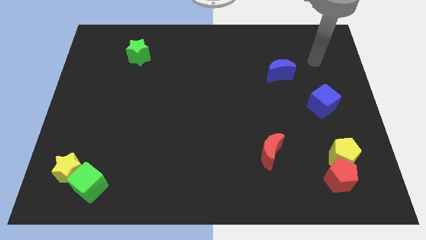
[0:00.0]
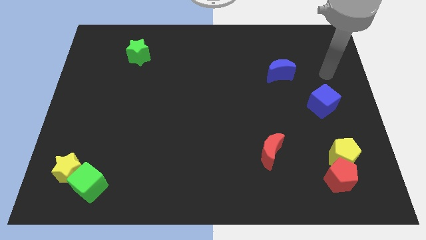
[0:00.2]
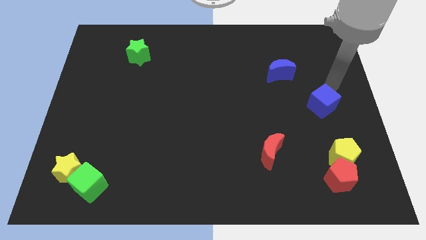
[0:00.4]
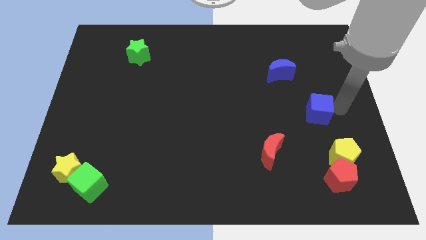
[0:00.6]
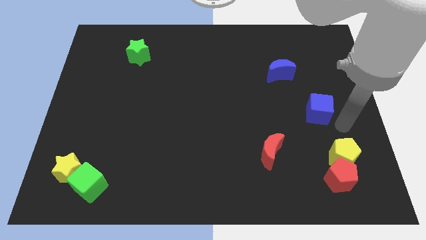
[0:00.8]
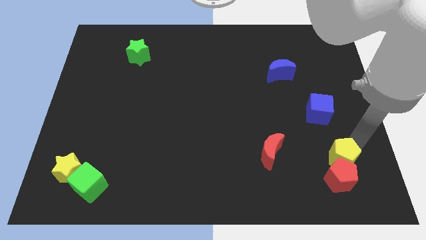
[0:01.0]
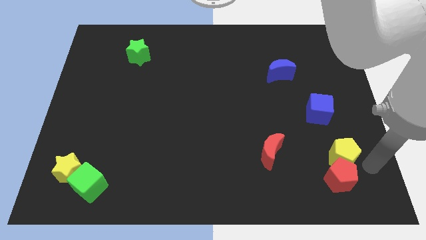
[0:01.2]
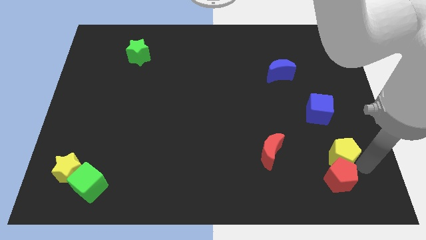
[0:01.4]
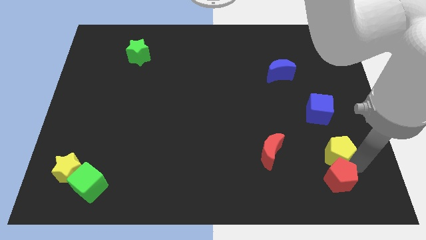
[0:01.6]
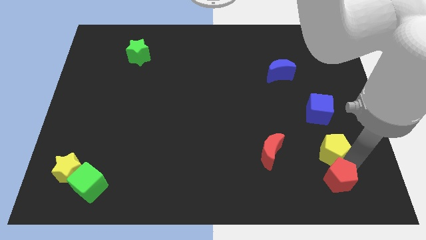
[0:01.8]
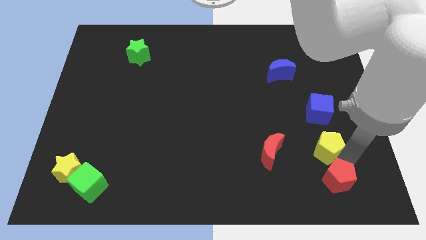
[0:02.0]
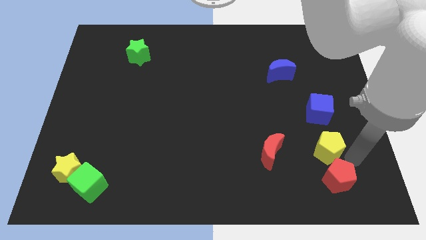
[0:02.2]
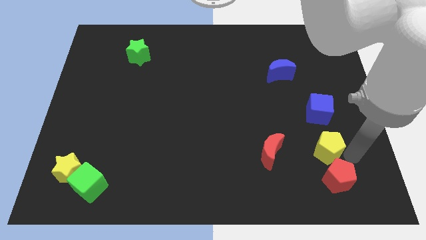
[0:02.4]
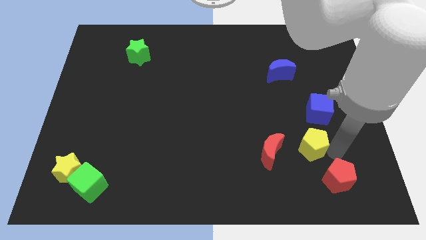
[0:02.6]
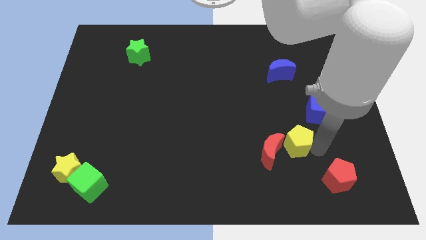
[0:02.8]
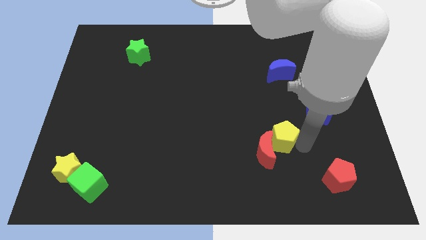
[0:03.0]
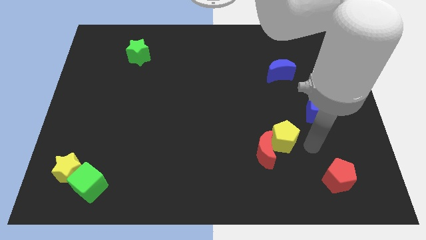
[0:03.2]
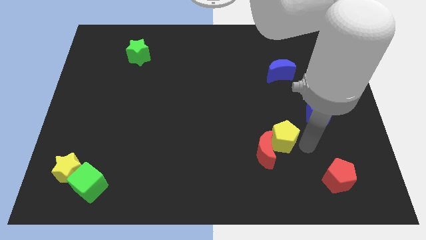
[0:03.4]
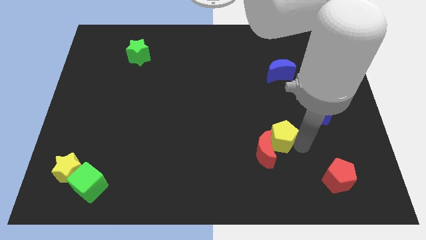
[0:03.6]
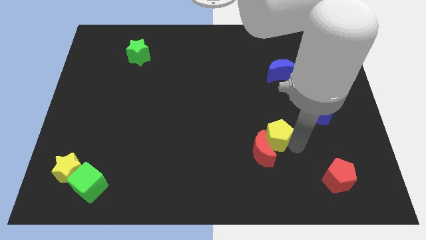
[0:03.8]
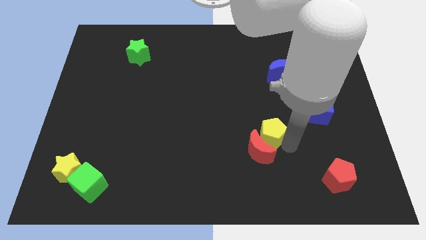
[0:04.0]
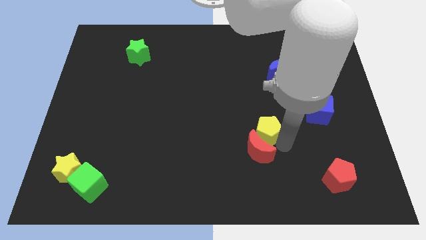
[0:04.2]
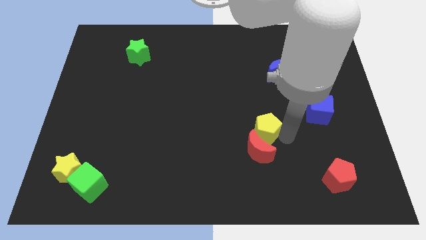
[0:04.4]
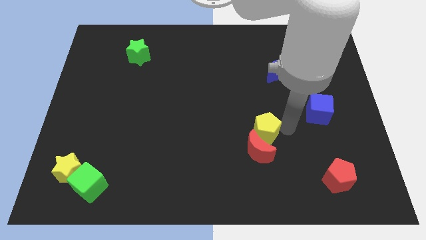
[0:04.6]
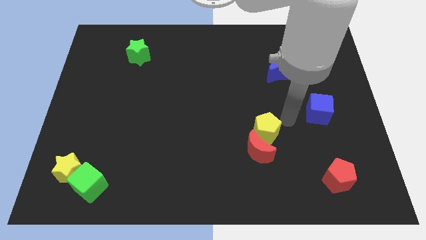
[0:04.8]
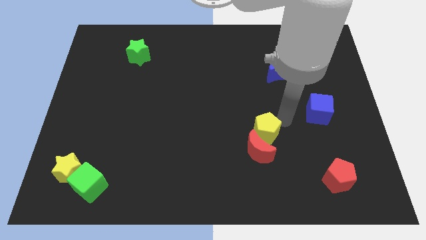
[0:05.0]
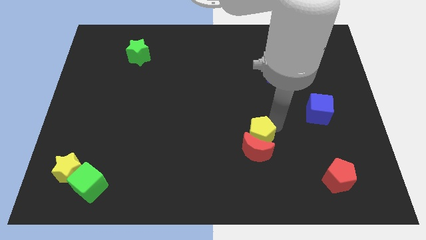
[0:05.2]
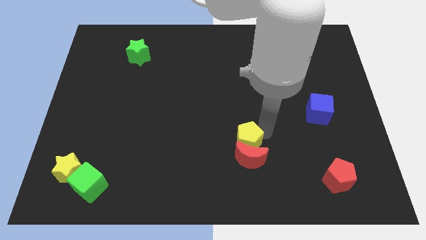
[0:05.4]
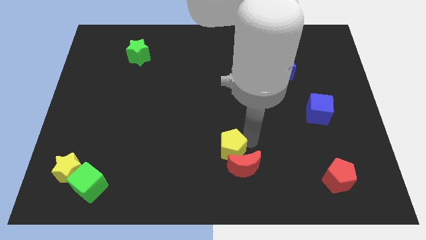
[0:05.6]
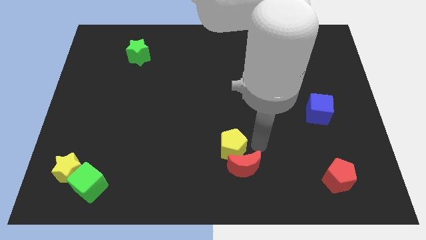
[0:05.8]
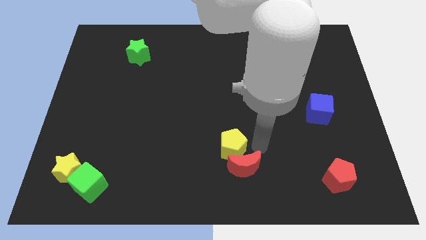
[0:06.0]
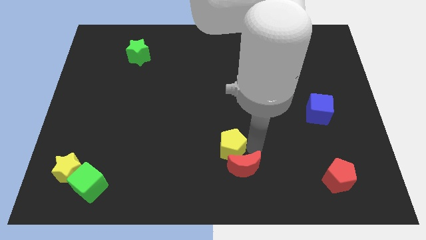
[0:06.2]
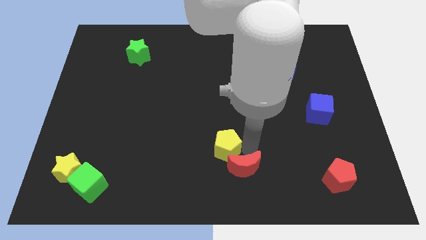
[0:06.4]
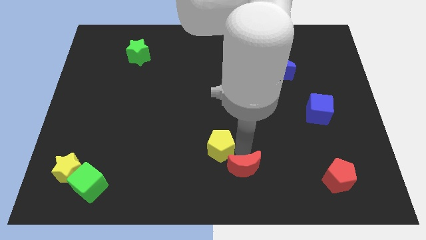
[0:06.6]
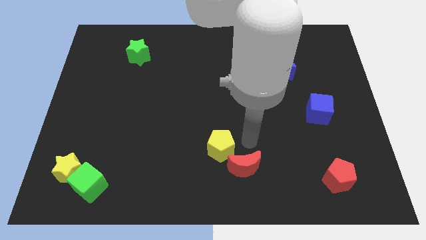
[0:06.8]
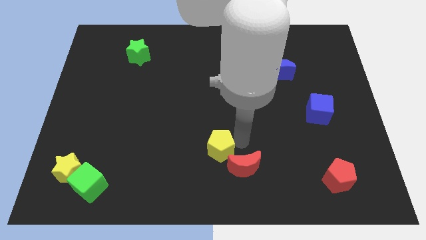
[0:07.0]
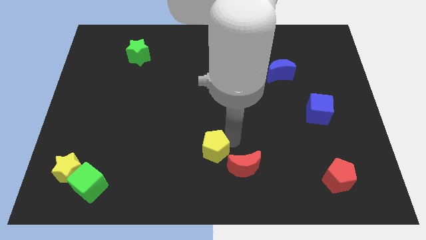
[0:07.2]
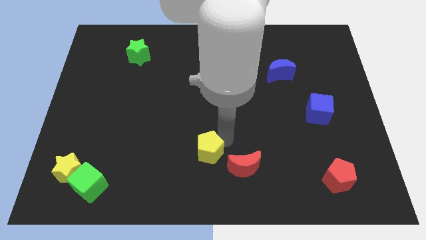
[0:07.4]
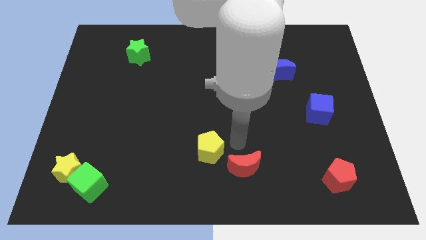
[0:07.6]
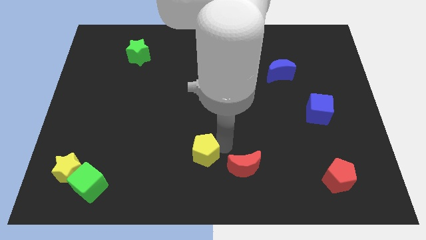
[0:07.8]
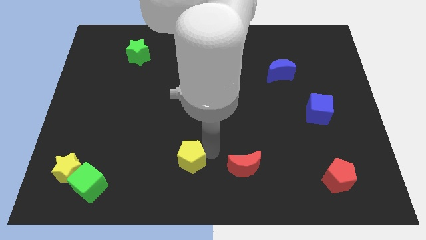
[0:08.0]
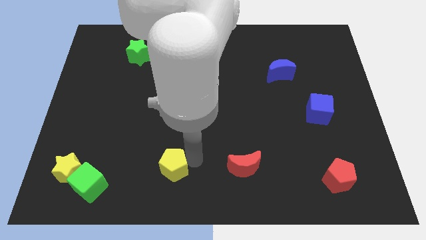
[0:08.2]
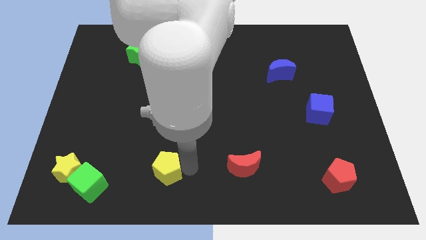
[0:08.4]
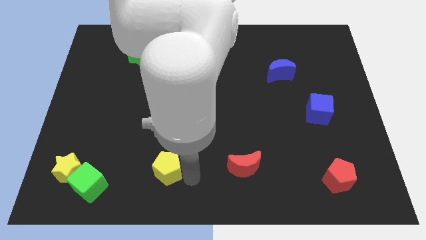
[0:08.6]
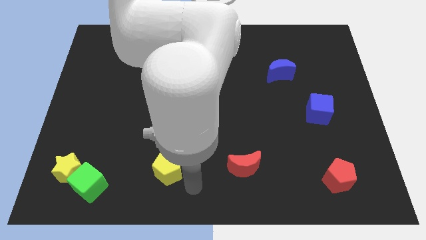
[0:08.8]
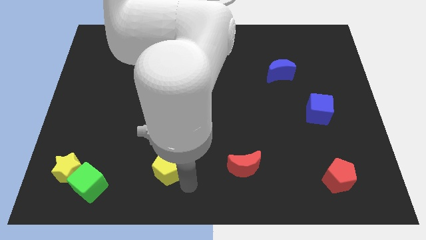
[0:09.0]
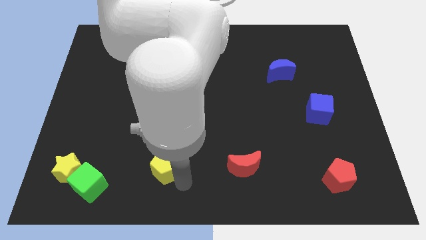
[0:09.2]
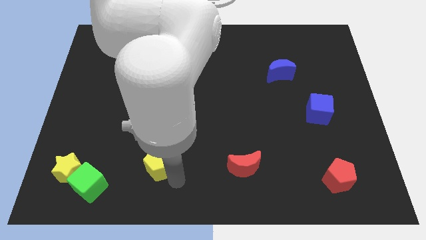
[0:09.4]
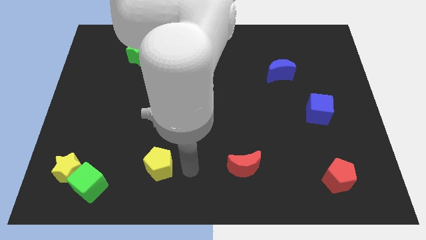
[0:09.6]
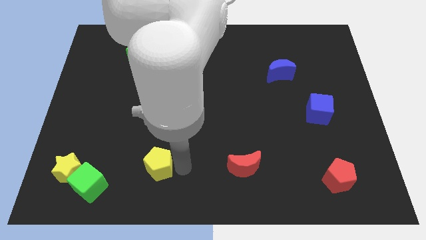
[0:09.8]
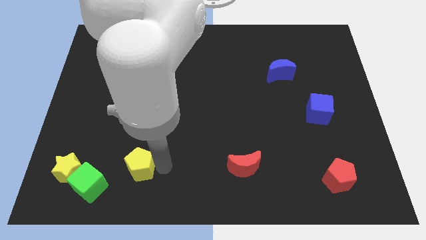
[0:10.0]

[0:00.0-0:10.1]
slide the yellow pentagon diagonally up and to the right of the green cube

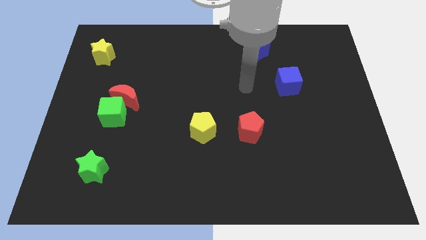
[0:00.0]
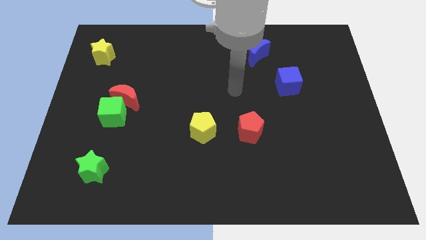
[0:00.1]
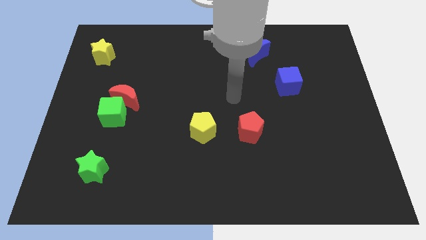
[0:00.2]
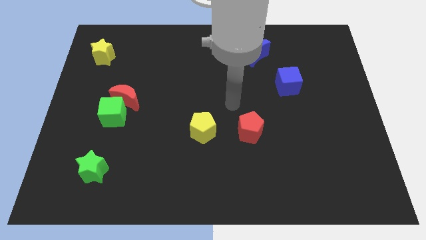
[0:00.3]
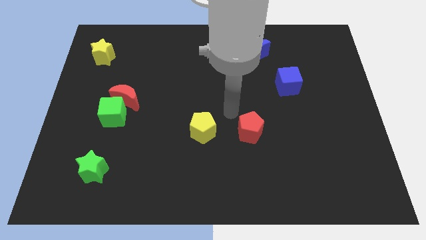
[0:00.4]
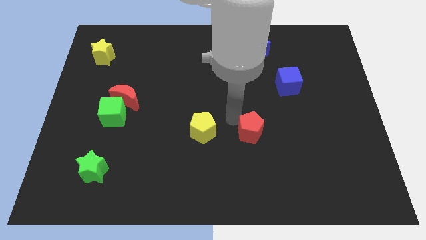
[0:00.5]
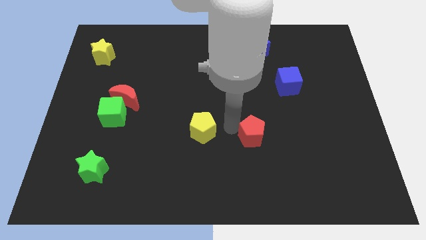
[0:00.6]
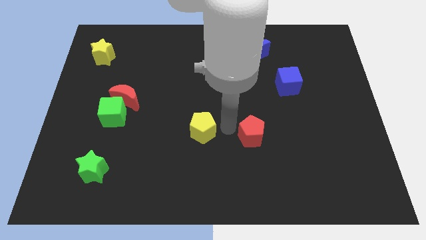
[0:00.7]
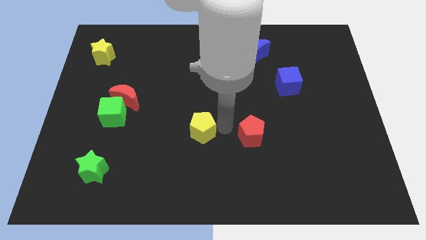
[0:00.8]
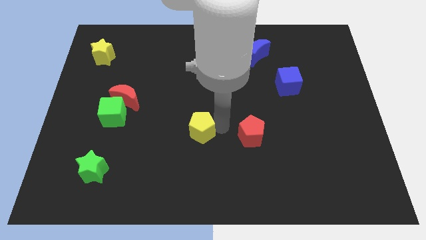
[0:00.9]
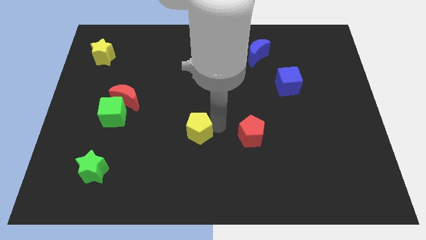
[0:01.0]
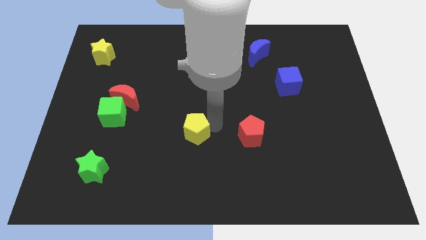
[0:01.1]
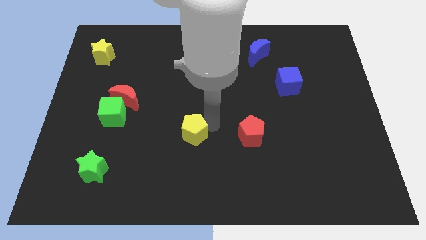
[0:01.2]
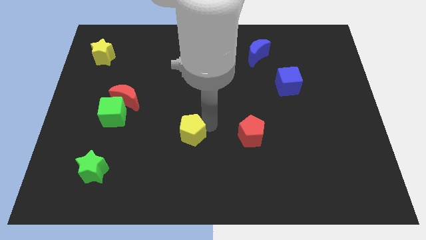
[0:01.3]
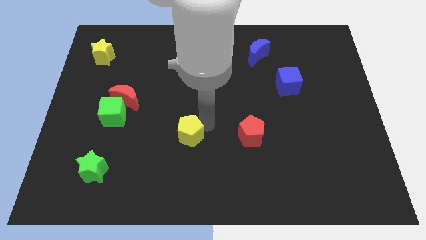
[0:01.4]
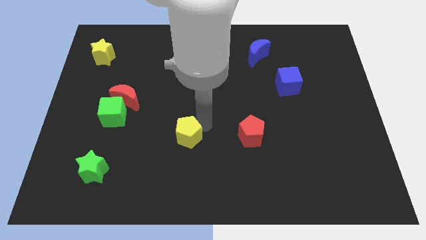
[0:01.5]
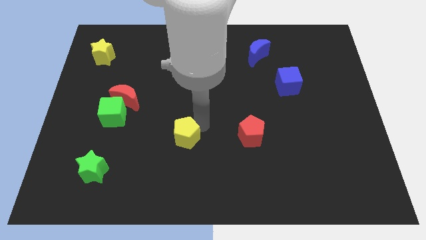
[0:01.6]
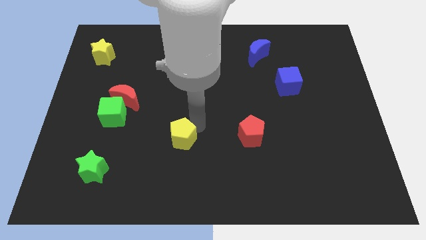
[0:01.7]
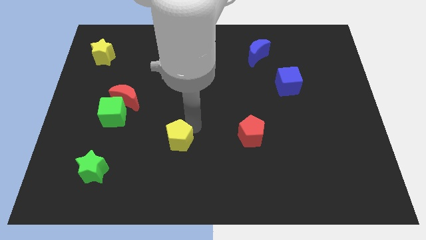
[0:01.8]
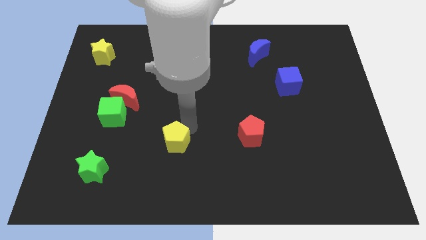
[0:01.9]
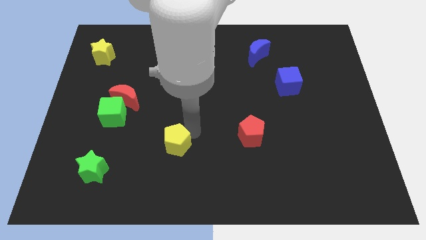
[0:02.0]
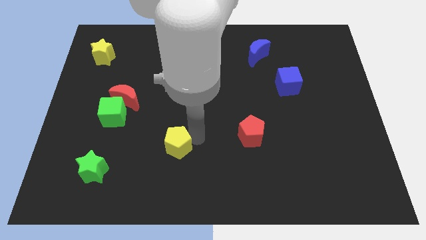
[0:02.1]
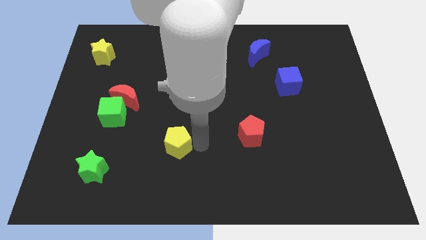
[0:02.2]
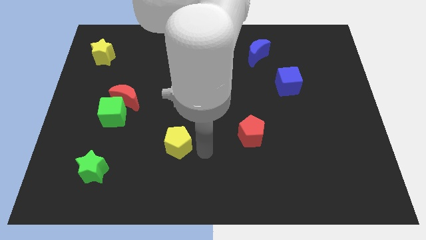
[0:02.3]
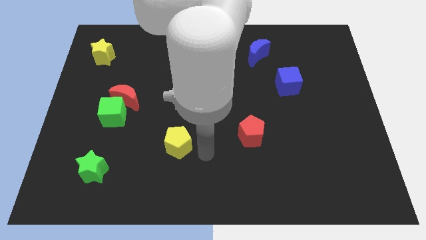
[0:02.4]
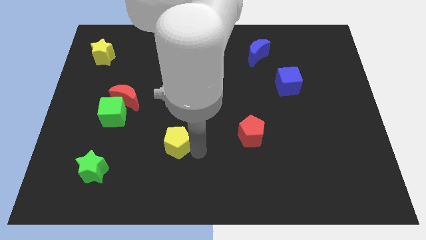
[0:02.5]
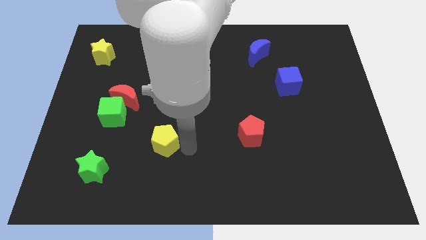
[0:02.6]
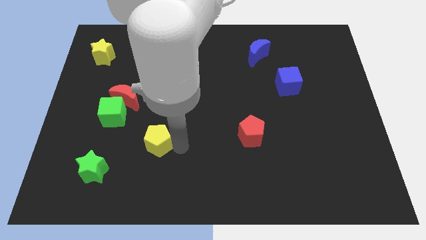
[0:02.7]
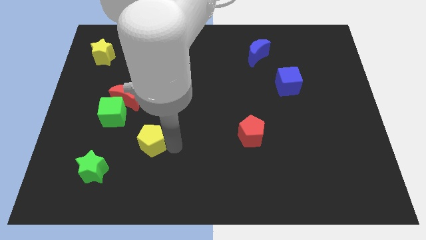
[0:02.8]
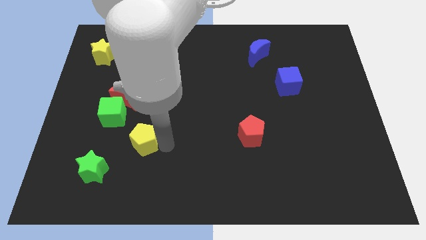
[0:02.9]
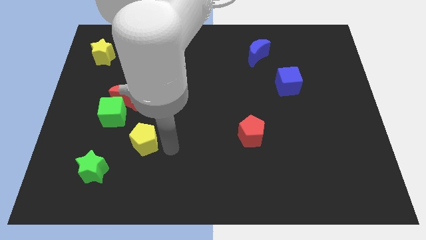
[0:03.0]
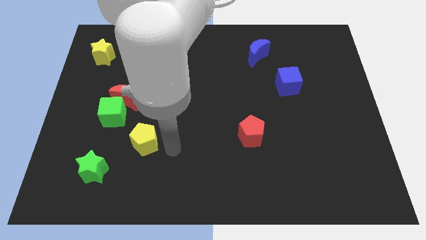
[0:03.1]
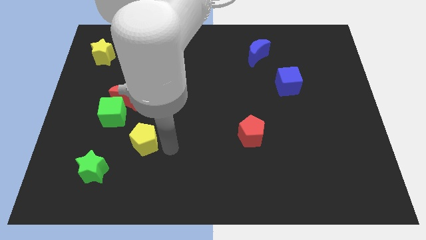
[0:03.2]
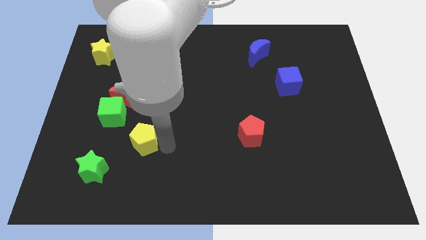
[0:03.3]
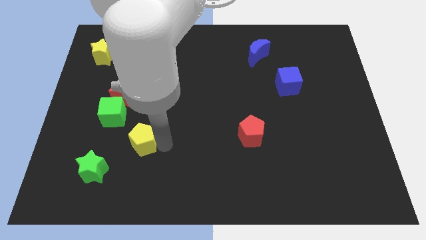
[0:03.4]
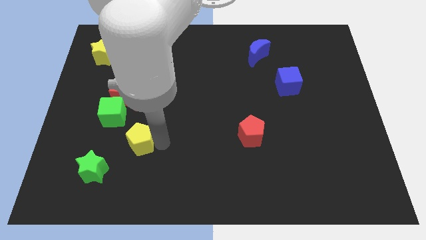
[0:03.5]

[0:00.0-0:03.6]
slide the yellow pentagon to the bottom side of the red moon
